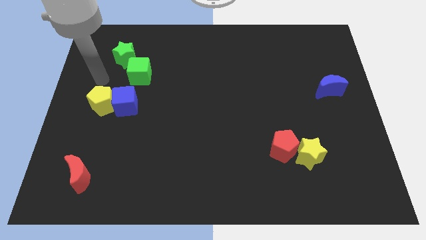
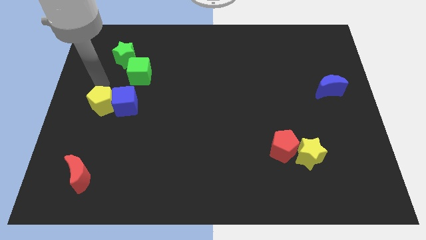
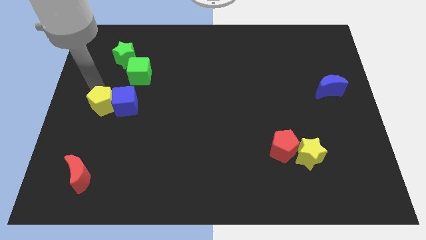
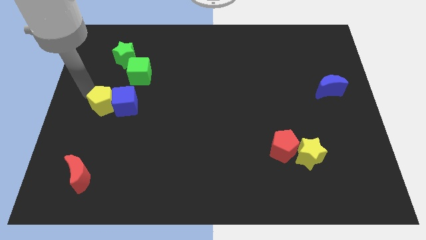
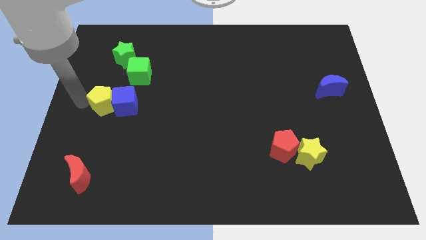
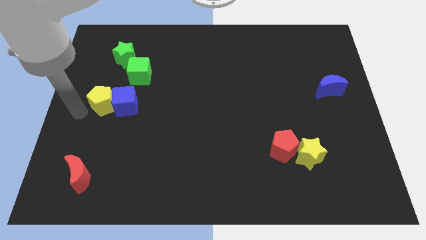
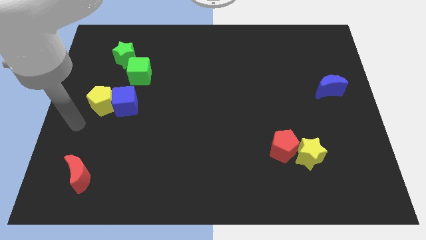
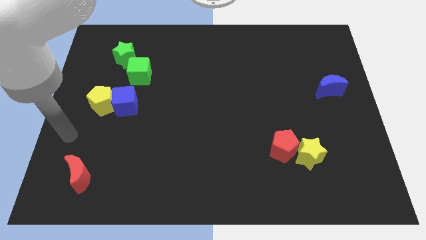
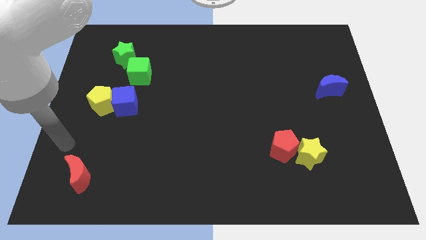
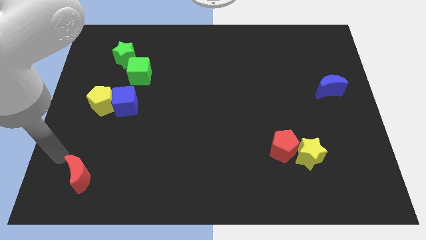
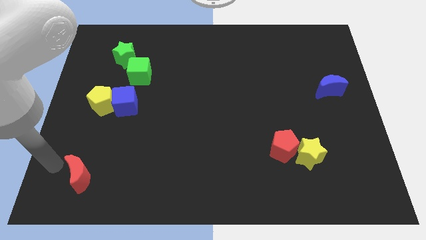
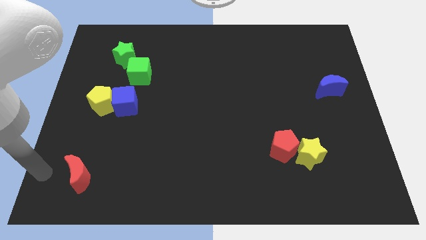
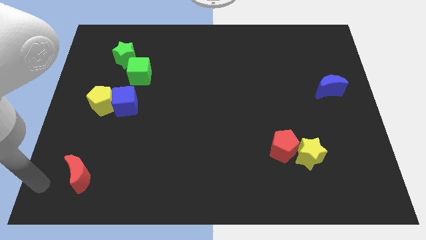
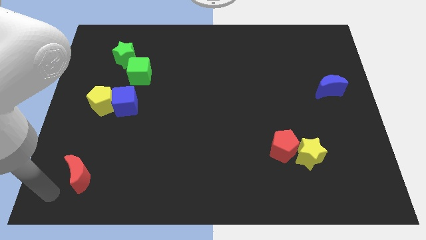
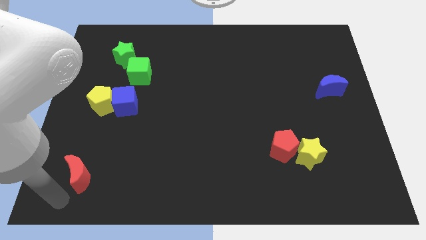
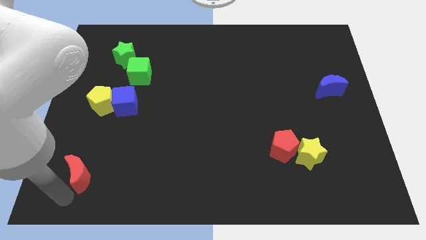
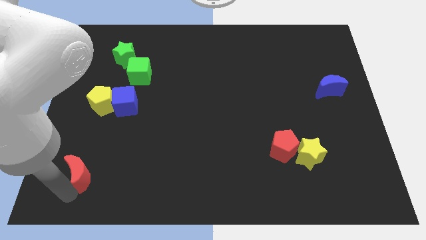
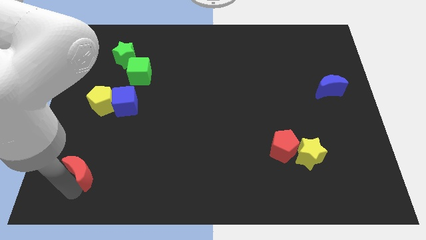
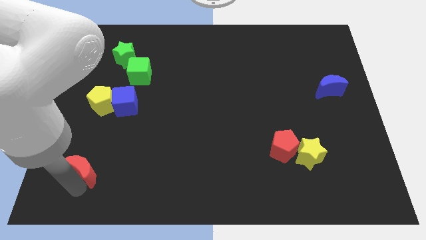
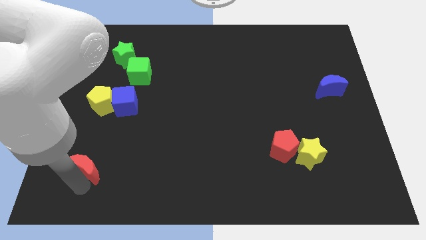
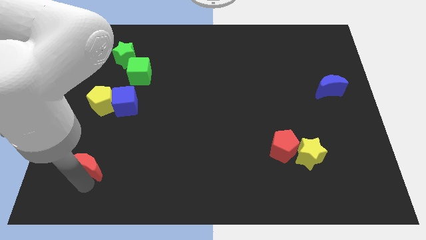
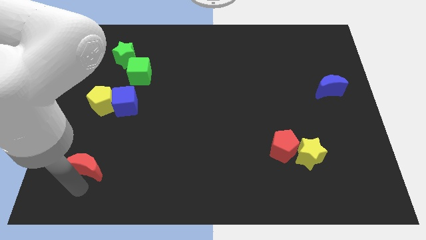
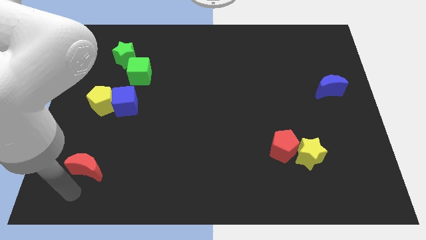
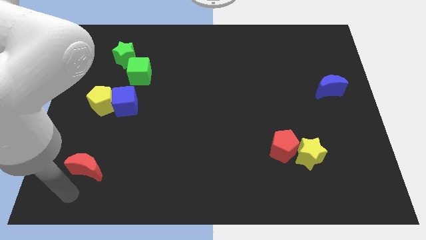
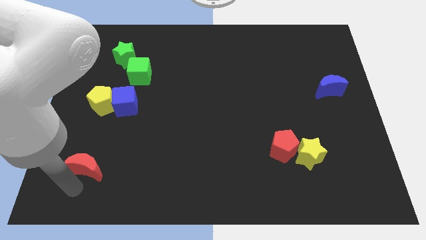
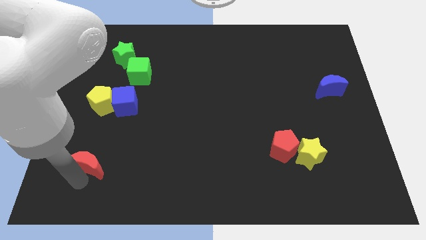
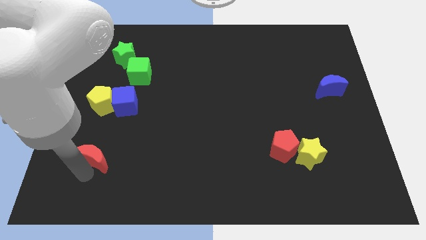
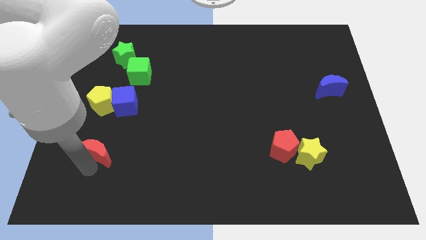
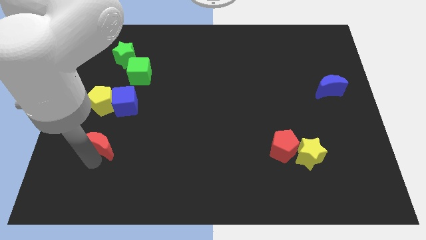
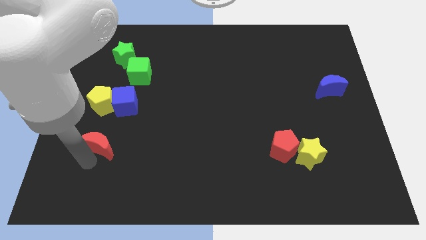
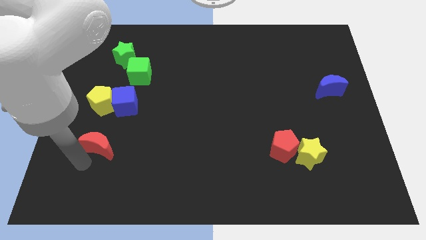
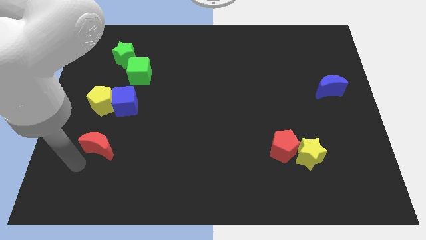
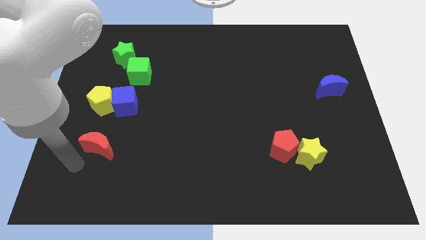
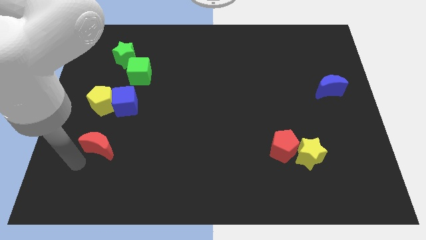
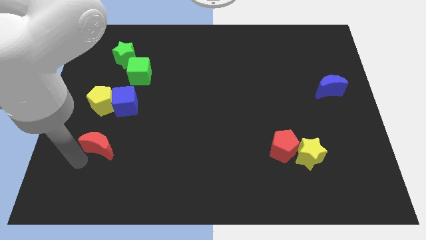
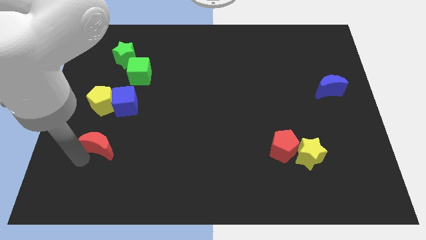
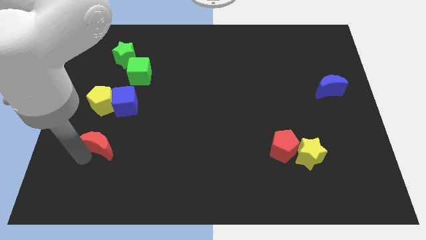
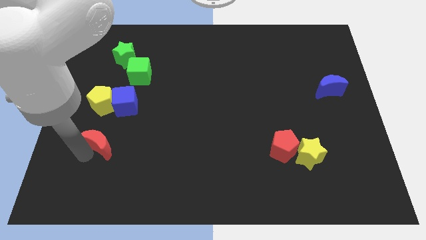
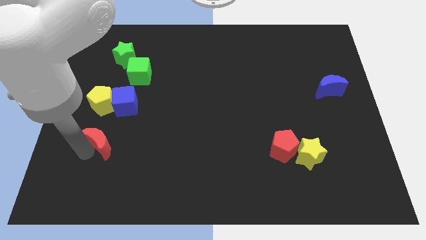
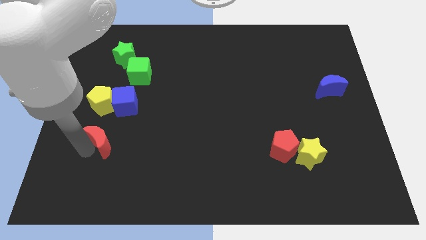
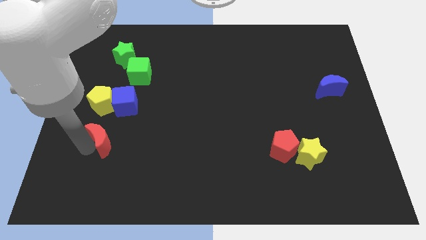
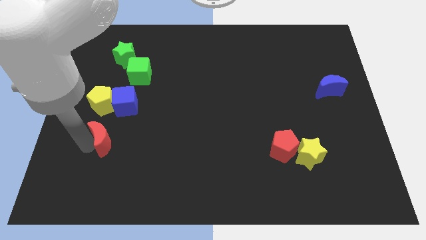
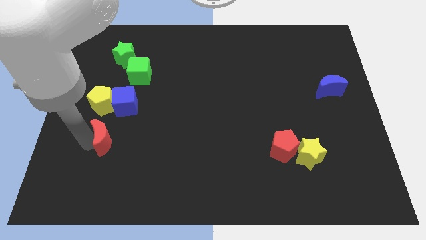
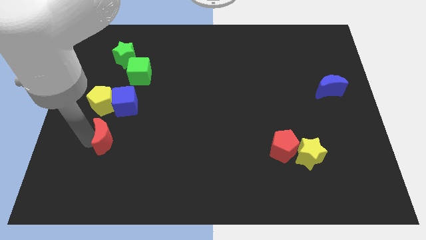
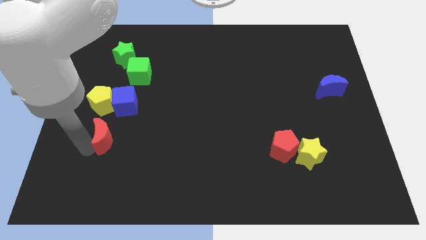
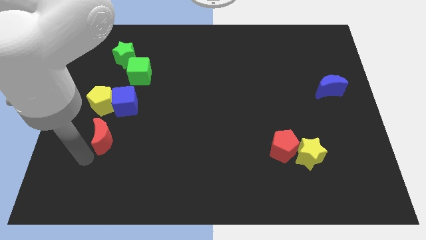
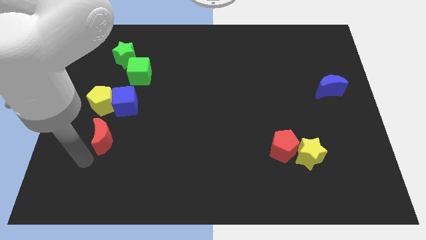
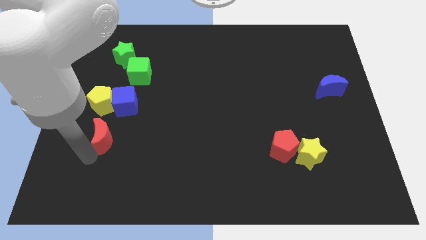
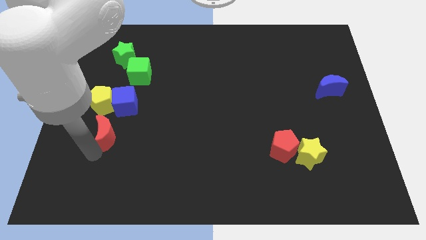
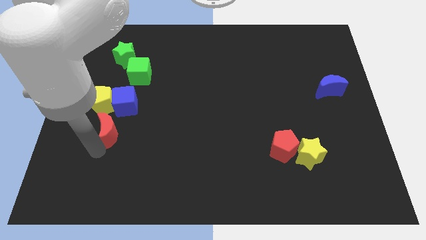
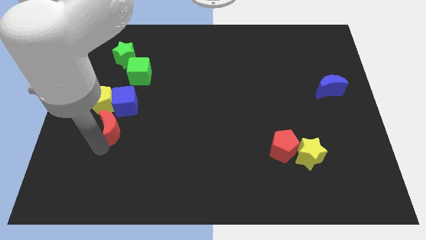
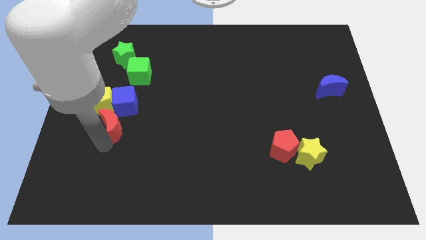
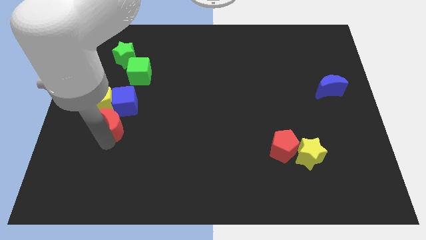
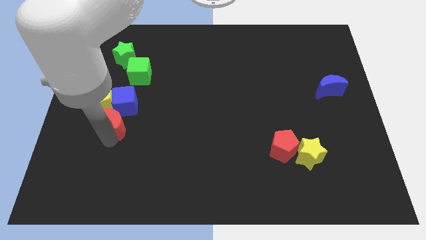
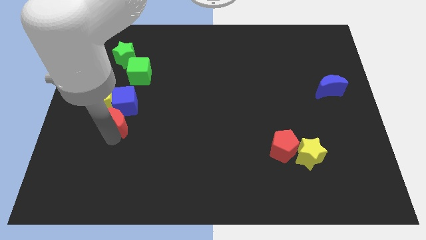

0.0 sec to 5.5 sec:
push the red moon to the bottom of the green cube

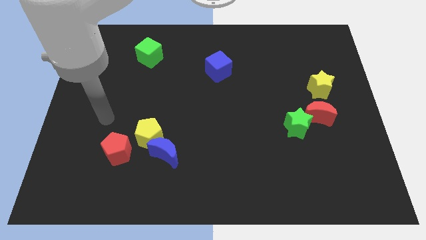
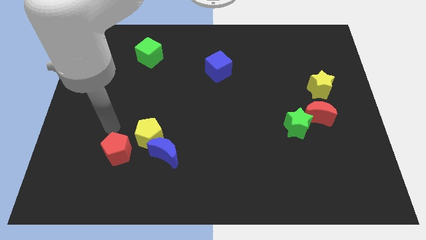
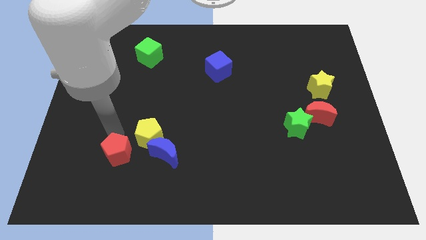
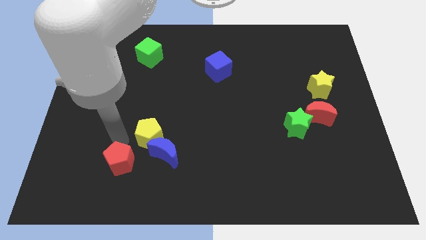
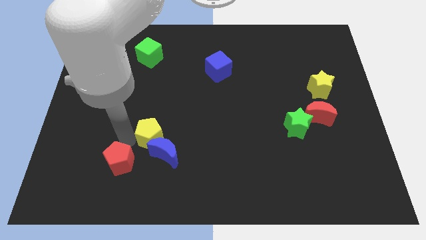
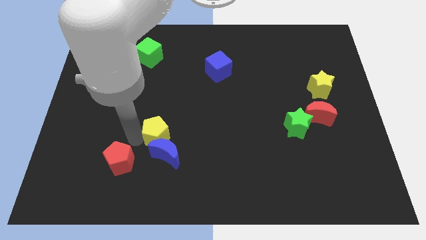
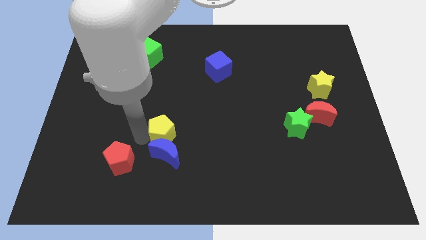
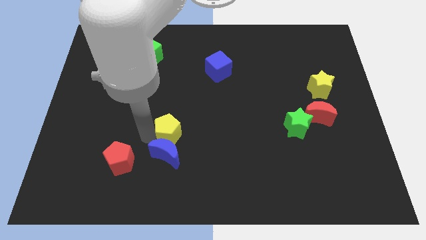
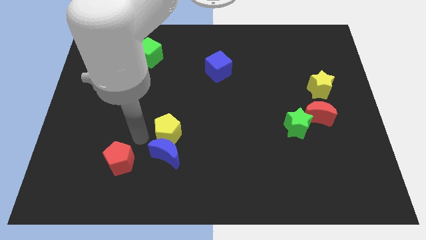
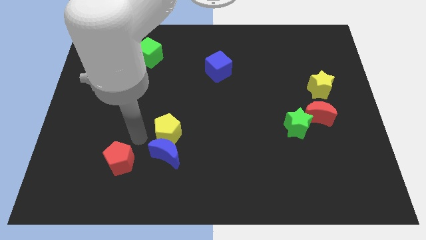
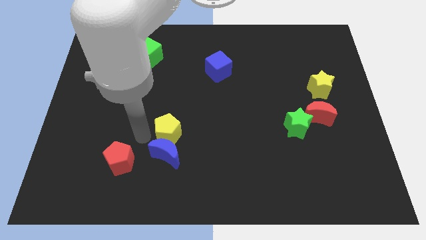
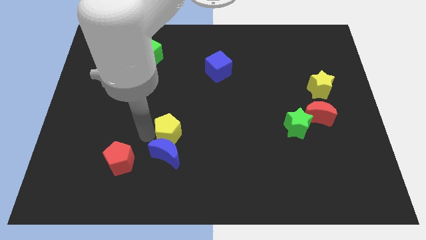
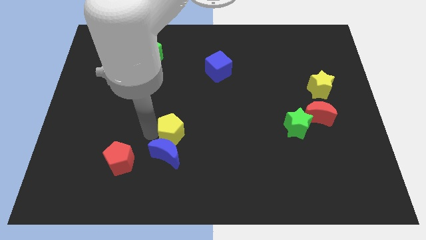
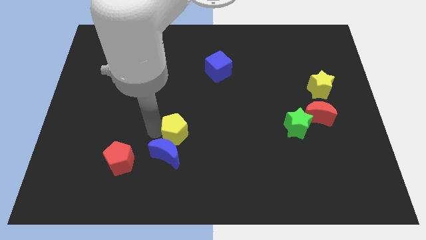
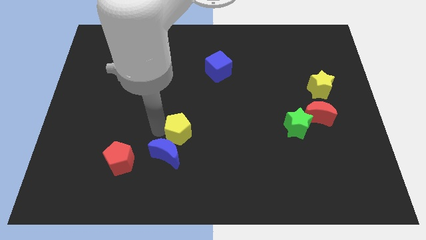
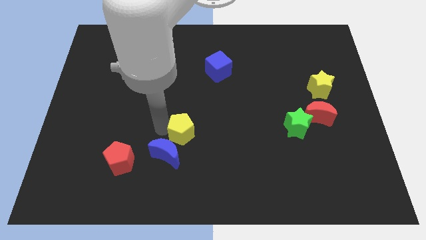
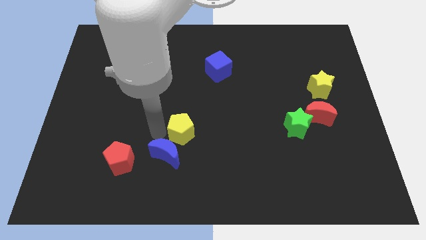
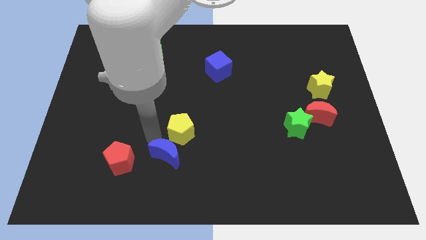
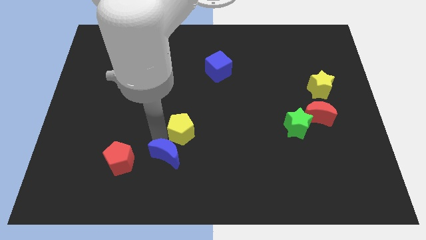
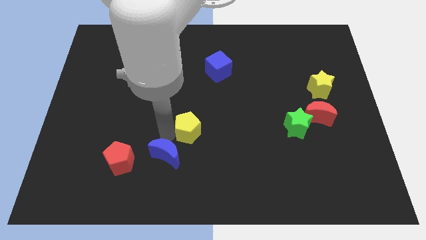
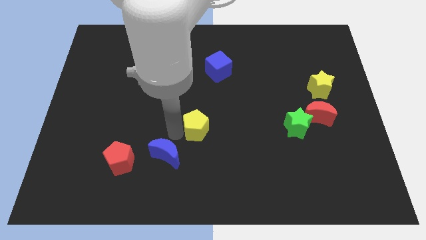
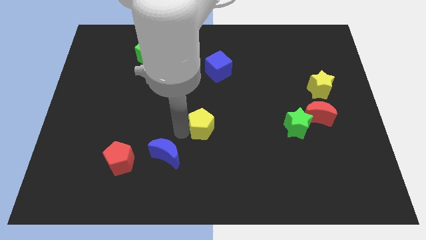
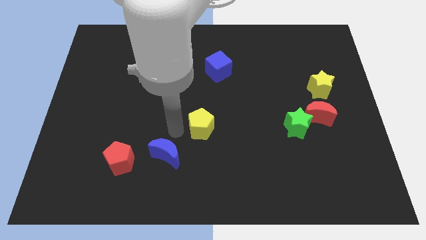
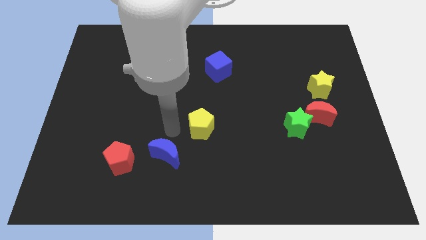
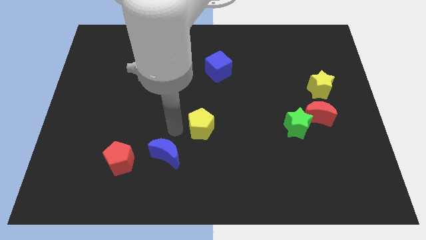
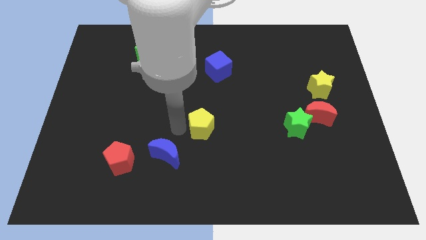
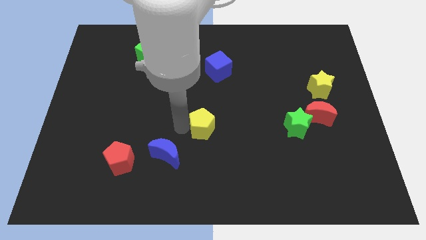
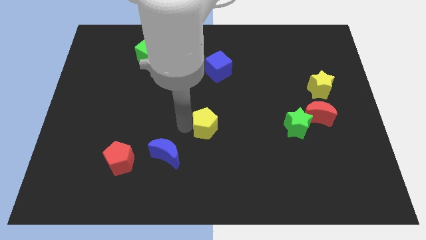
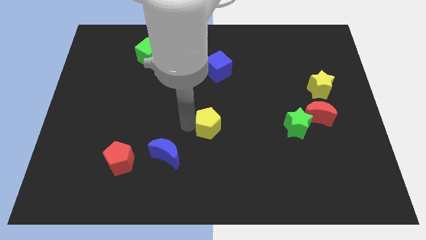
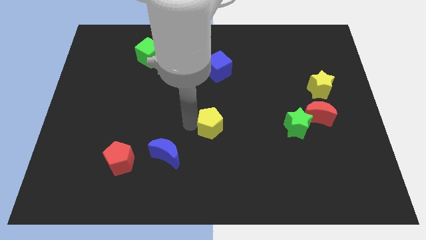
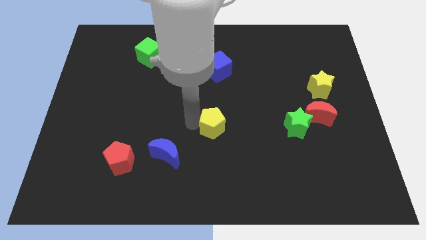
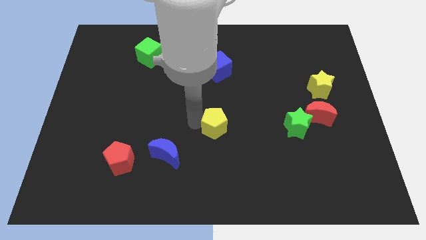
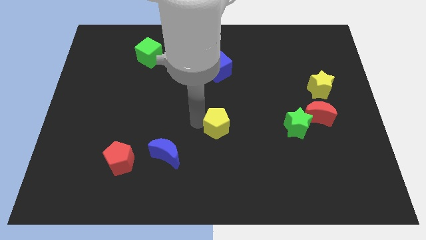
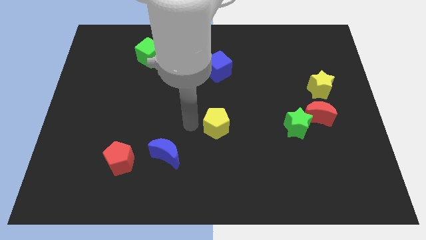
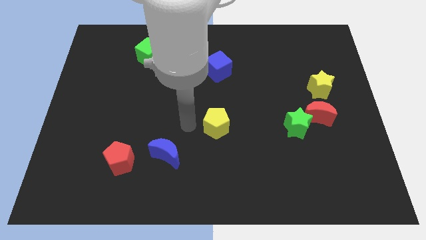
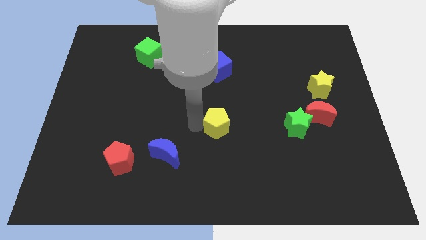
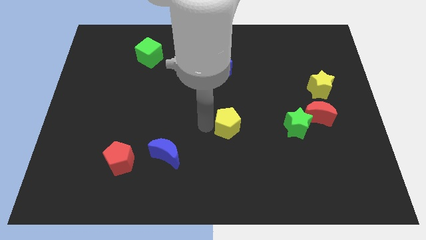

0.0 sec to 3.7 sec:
slide the yellow pentagon left of the green star
